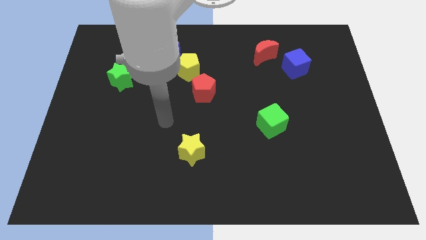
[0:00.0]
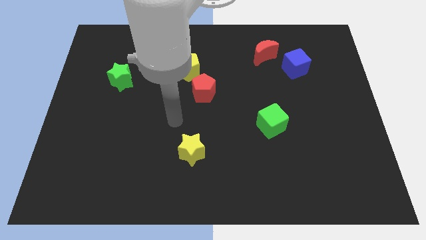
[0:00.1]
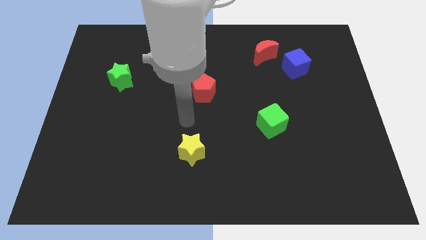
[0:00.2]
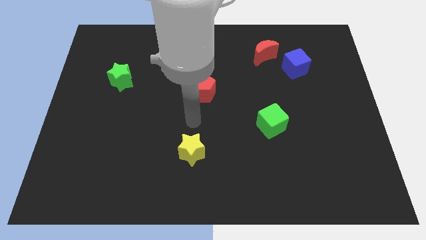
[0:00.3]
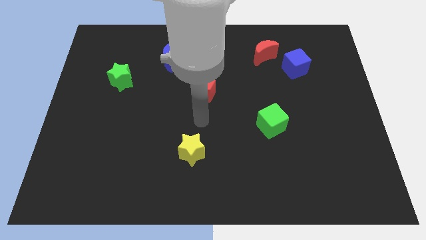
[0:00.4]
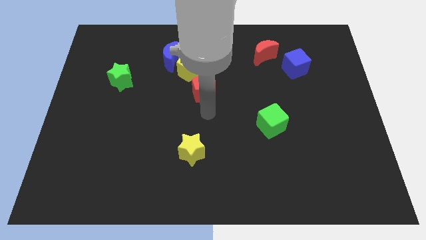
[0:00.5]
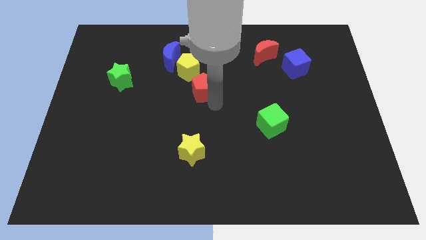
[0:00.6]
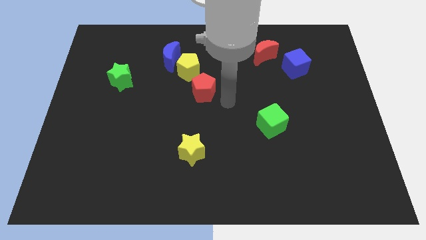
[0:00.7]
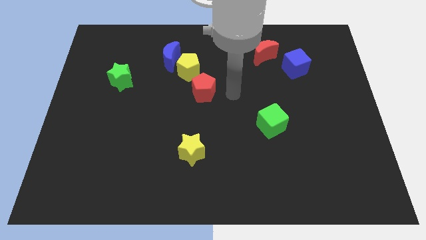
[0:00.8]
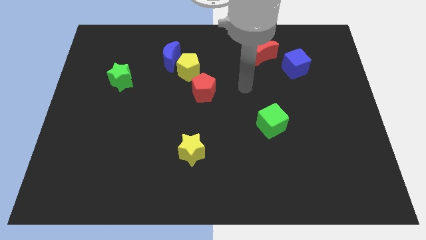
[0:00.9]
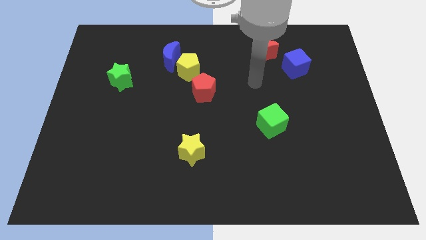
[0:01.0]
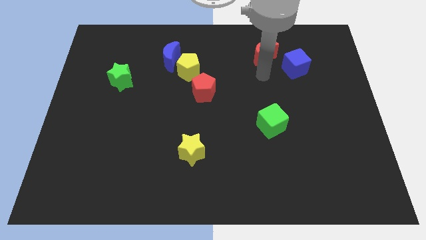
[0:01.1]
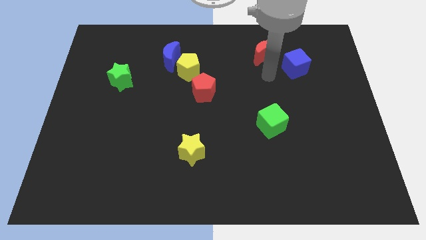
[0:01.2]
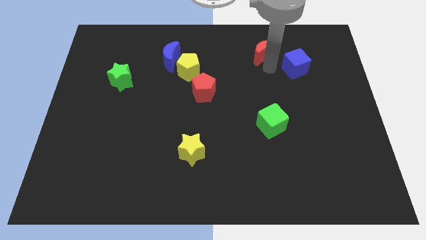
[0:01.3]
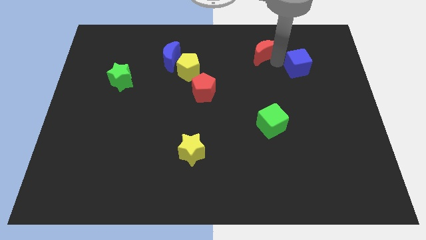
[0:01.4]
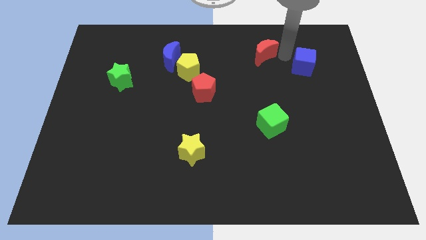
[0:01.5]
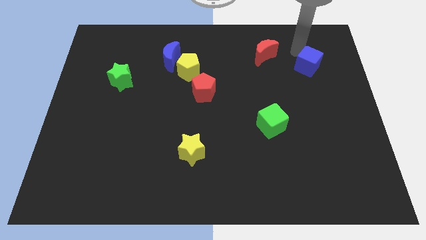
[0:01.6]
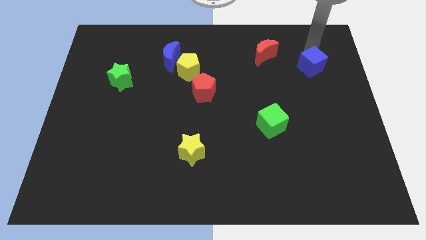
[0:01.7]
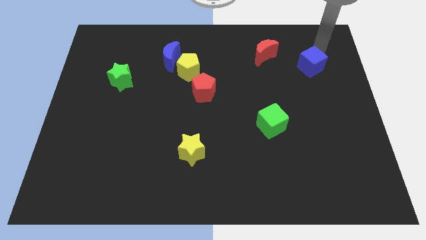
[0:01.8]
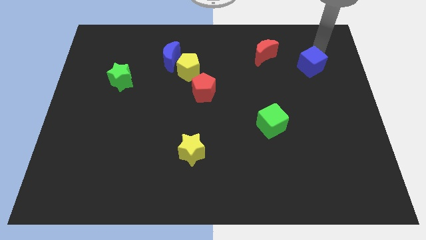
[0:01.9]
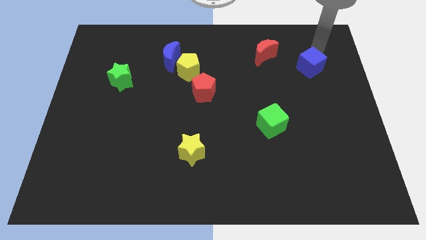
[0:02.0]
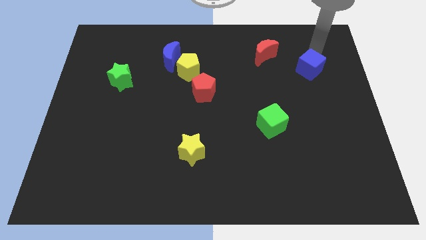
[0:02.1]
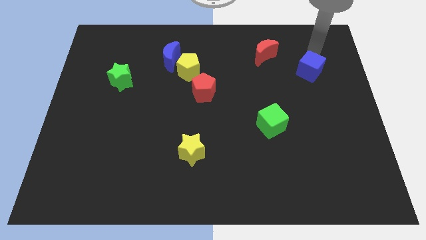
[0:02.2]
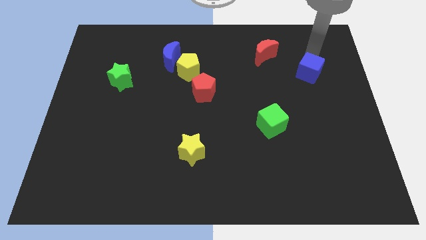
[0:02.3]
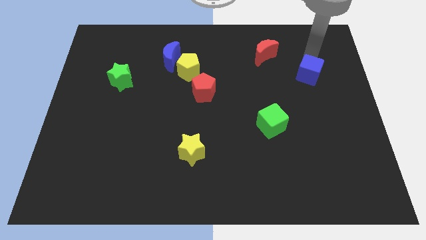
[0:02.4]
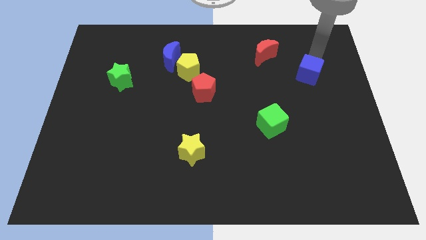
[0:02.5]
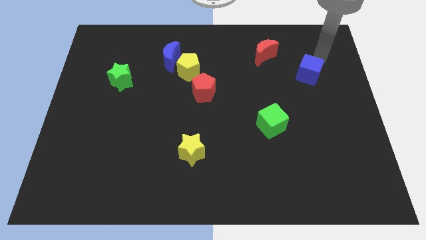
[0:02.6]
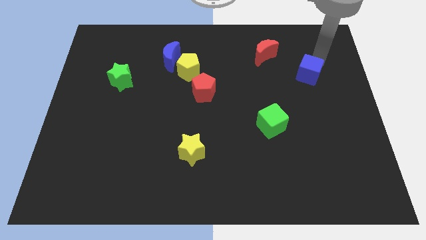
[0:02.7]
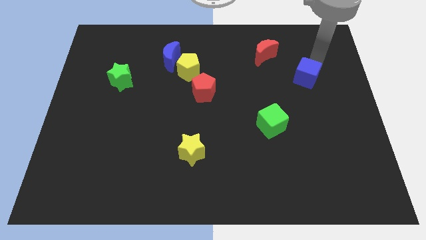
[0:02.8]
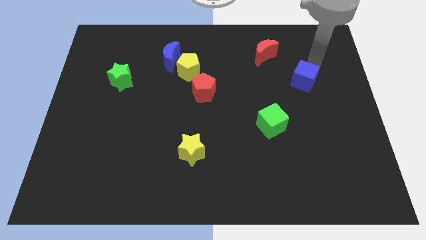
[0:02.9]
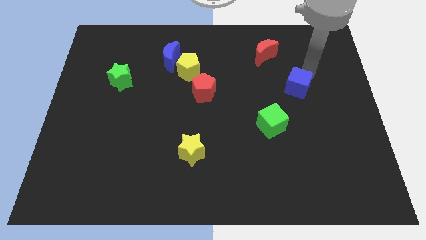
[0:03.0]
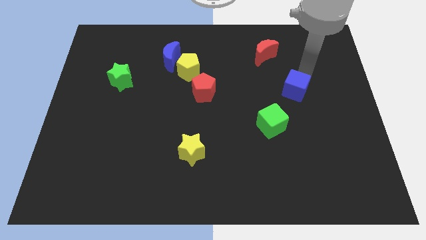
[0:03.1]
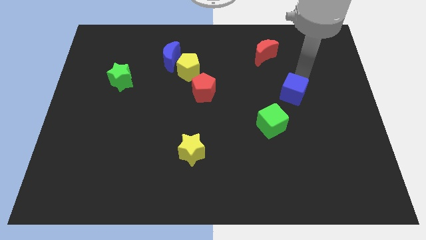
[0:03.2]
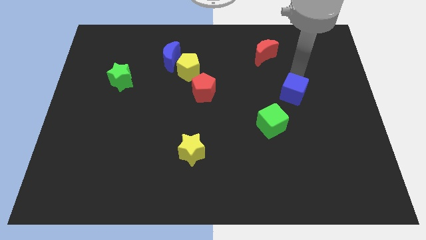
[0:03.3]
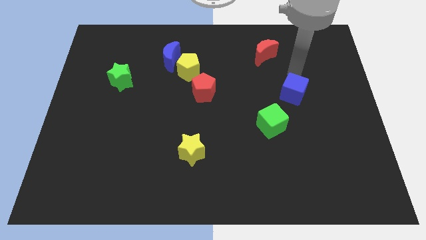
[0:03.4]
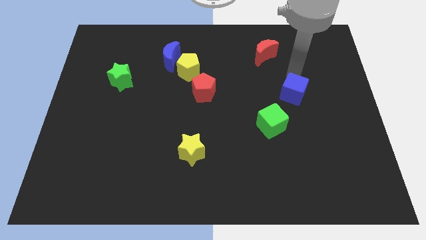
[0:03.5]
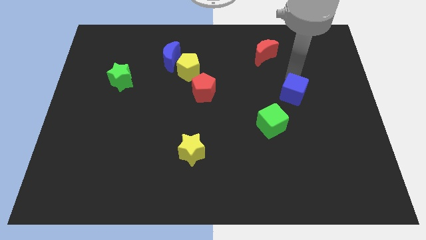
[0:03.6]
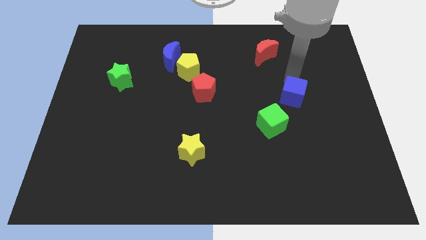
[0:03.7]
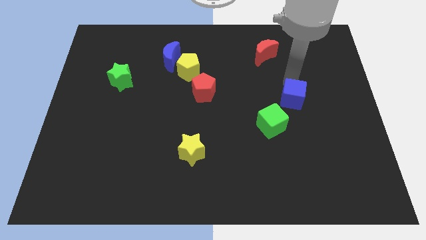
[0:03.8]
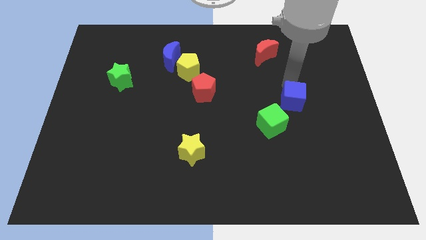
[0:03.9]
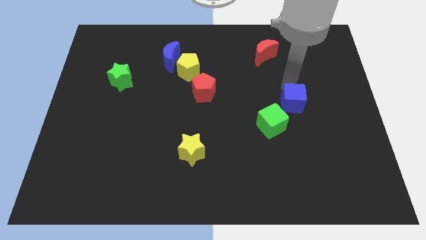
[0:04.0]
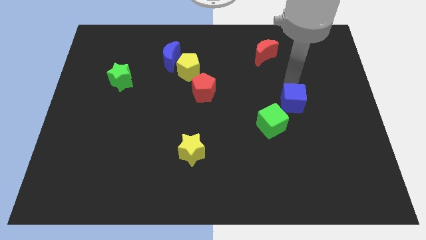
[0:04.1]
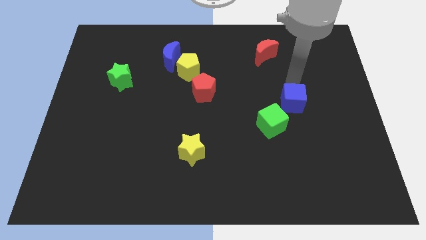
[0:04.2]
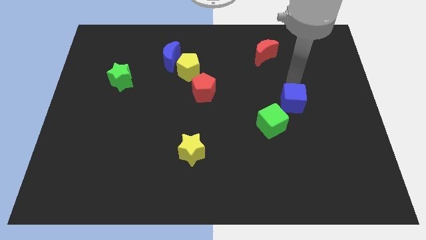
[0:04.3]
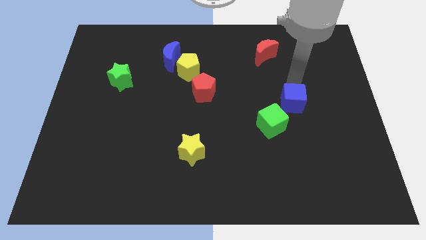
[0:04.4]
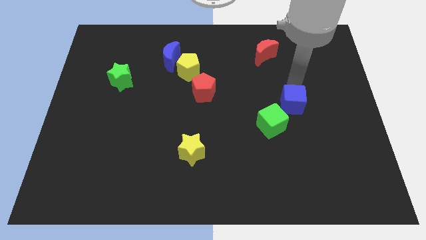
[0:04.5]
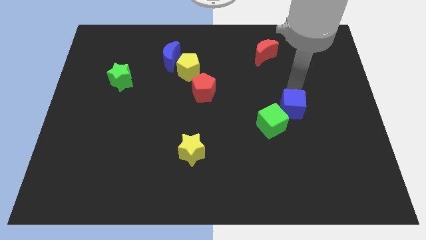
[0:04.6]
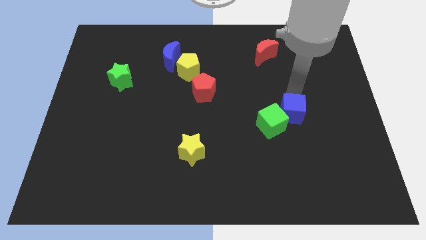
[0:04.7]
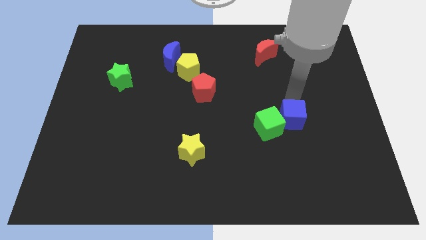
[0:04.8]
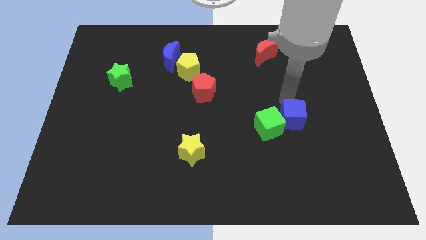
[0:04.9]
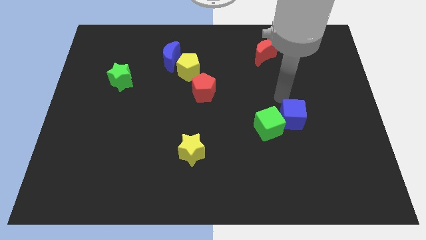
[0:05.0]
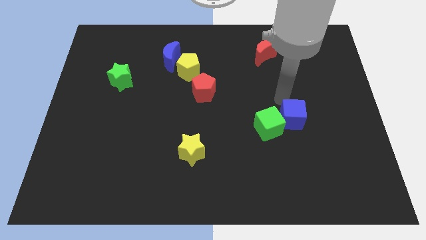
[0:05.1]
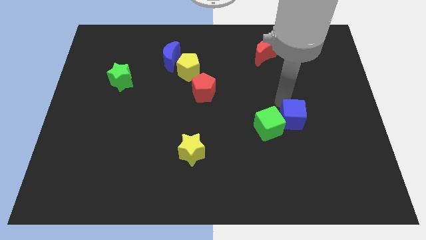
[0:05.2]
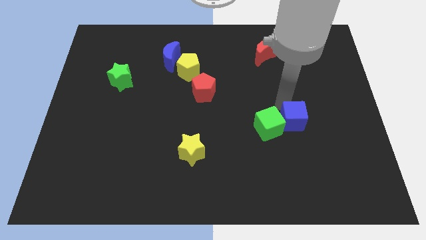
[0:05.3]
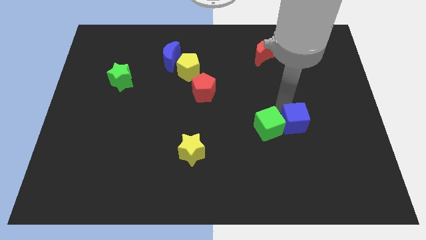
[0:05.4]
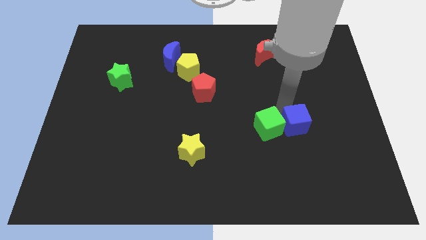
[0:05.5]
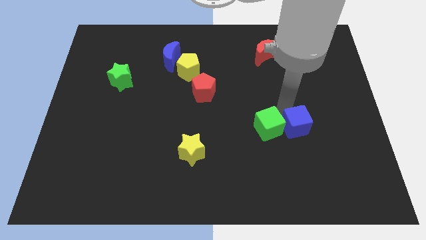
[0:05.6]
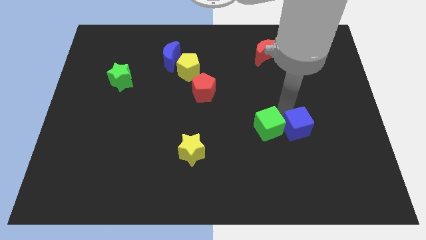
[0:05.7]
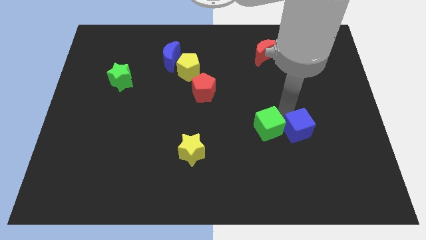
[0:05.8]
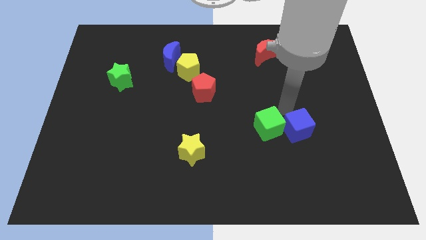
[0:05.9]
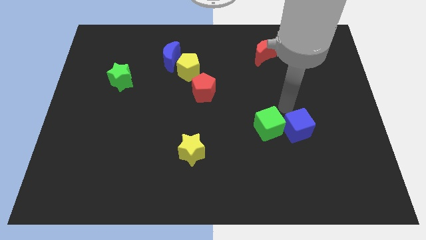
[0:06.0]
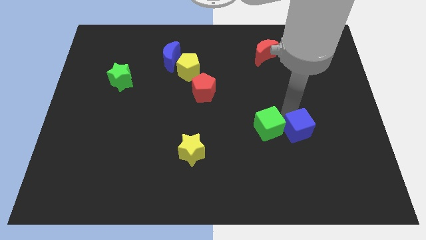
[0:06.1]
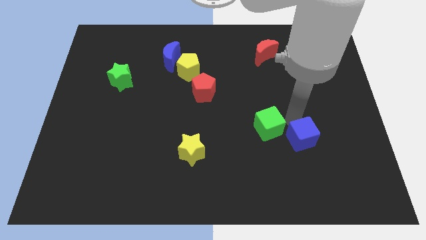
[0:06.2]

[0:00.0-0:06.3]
slide the blue cube down

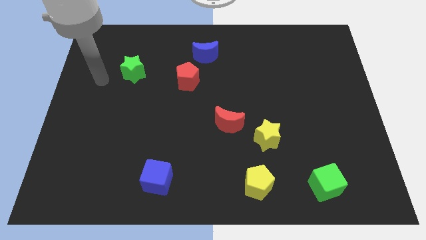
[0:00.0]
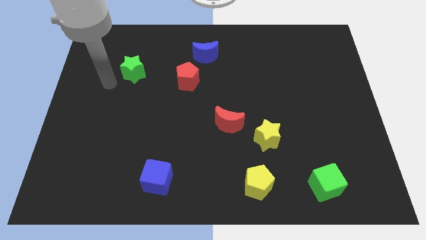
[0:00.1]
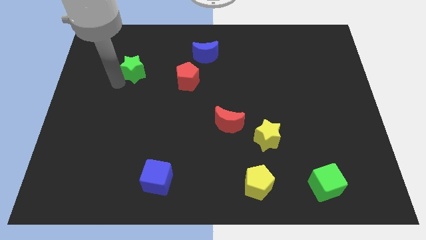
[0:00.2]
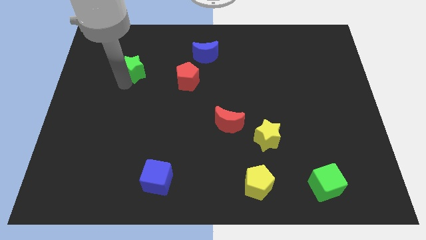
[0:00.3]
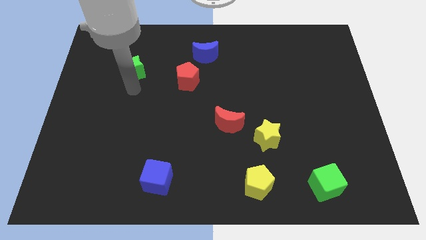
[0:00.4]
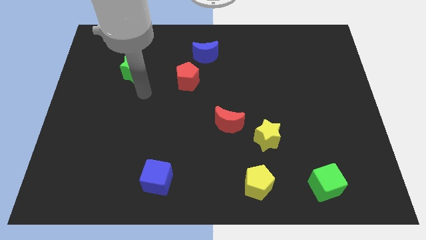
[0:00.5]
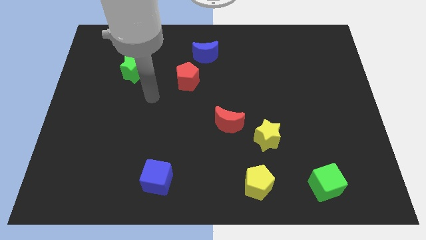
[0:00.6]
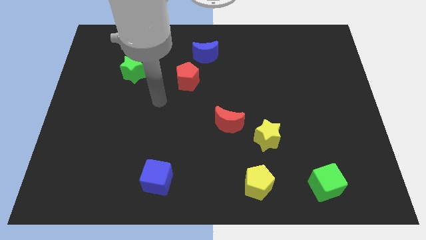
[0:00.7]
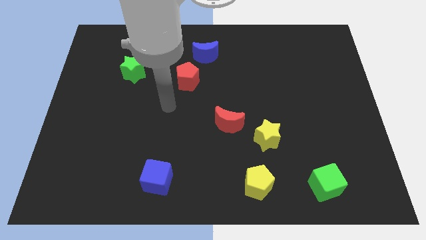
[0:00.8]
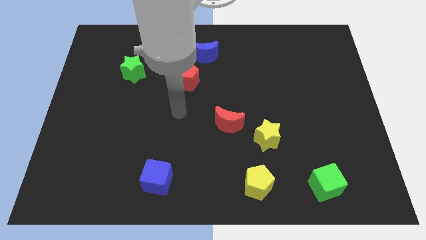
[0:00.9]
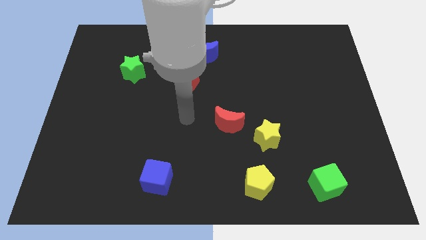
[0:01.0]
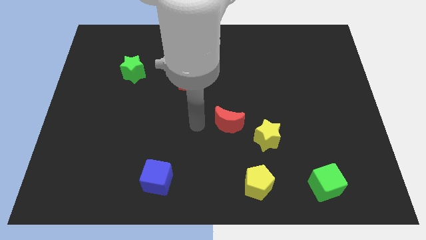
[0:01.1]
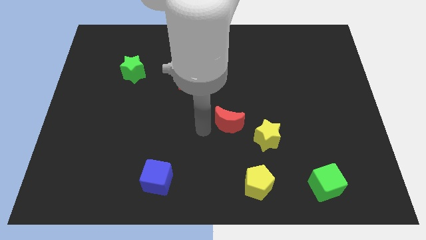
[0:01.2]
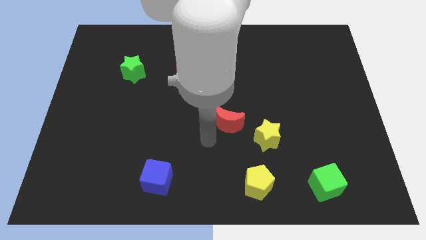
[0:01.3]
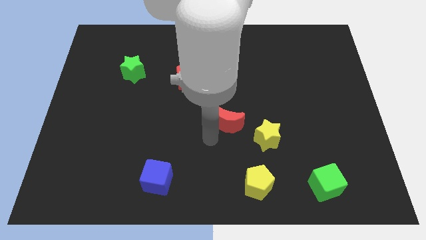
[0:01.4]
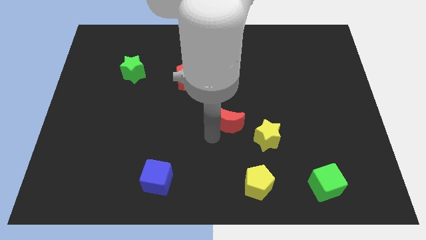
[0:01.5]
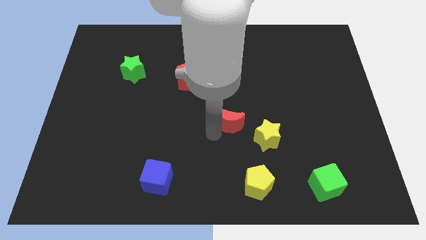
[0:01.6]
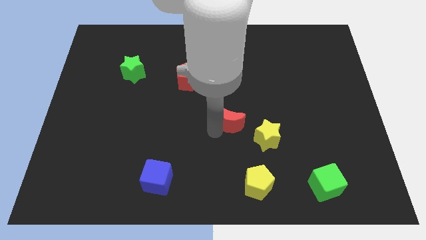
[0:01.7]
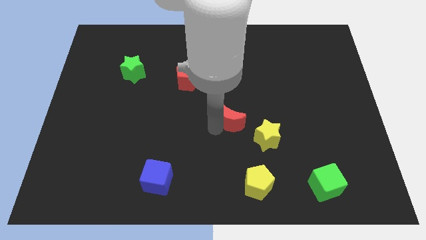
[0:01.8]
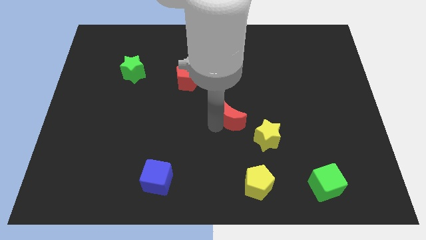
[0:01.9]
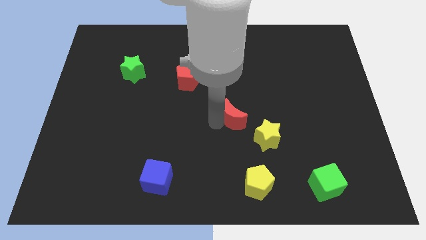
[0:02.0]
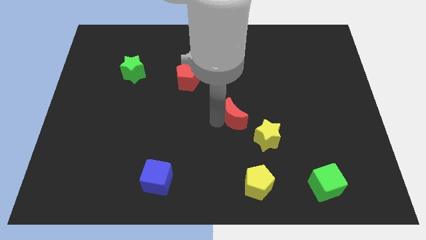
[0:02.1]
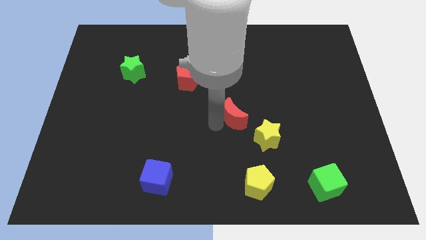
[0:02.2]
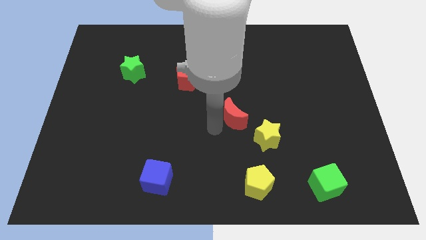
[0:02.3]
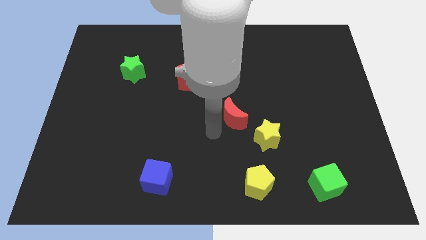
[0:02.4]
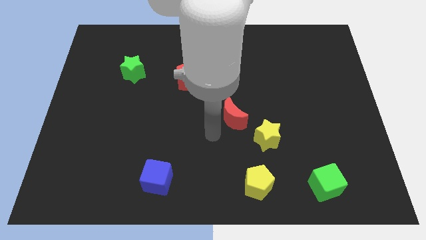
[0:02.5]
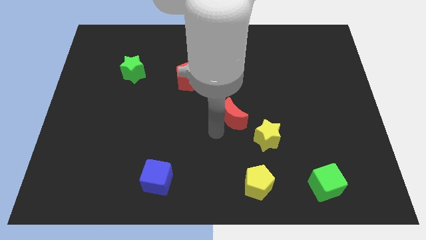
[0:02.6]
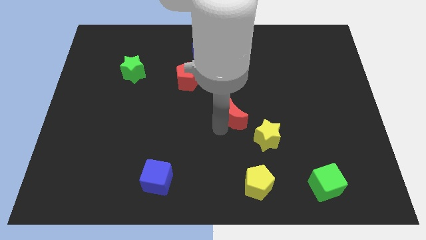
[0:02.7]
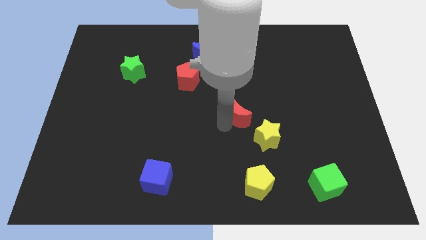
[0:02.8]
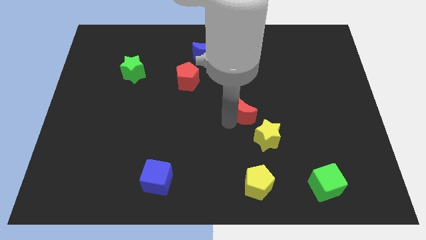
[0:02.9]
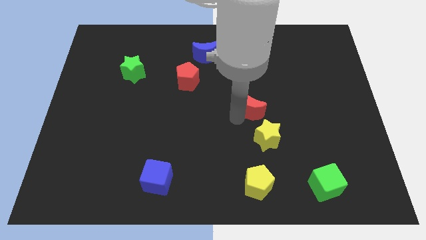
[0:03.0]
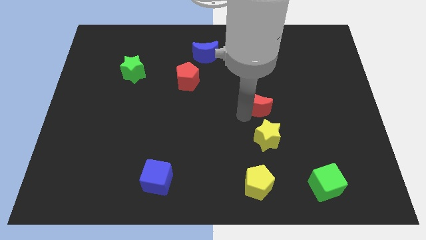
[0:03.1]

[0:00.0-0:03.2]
slightly push the red moon up and to the right
